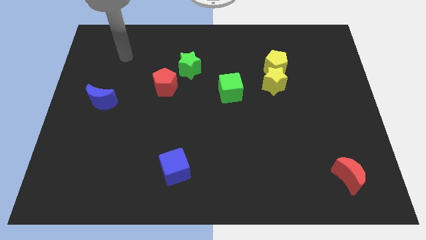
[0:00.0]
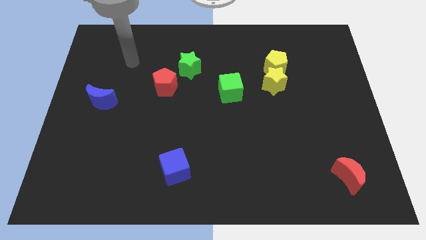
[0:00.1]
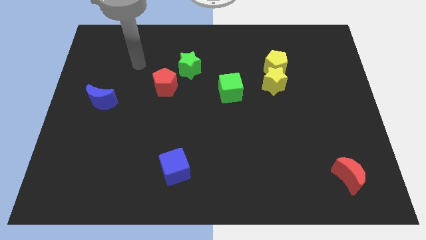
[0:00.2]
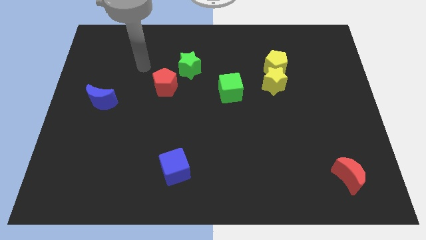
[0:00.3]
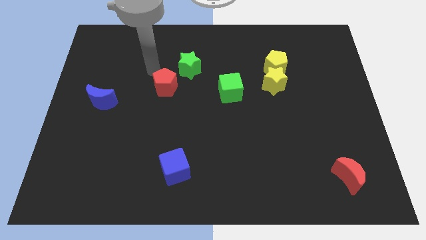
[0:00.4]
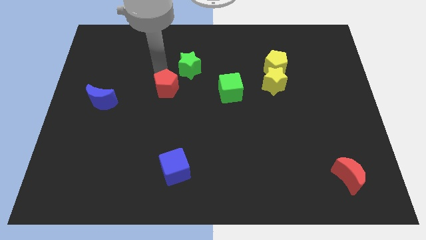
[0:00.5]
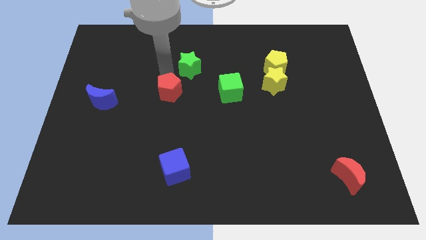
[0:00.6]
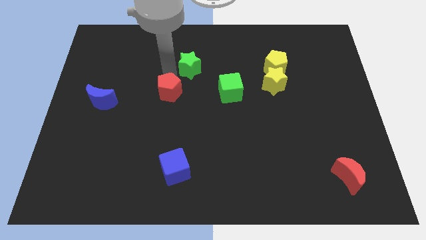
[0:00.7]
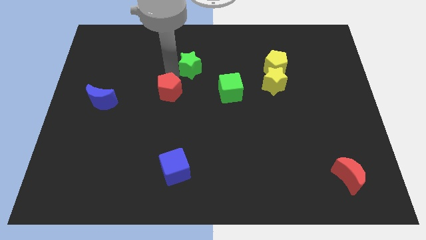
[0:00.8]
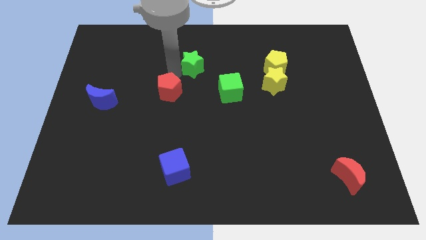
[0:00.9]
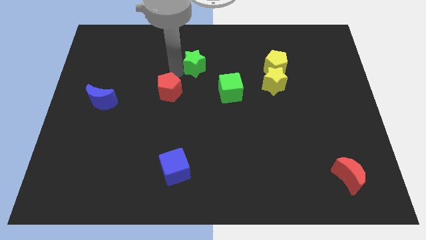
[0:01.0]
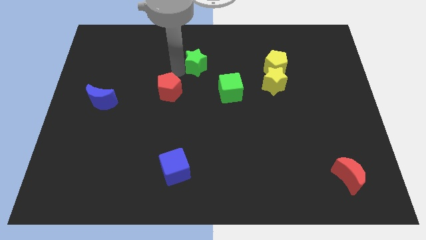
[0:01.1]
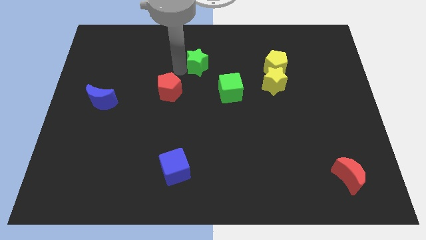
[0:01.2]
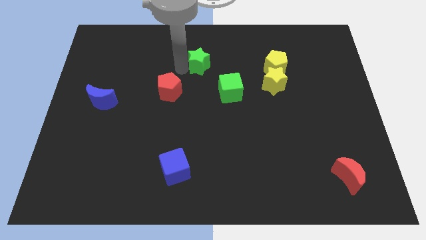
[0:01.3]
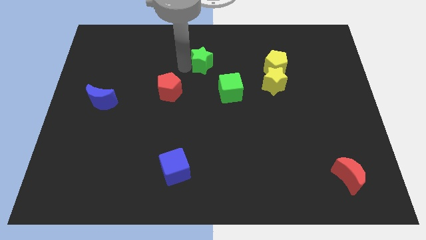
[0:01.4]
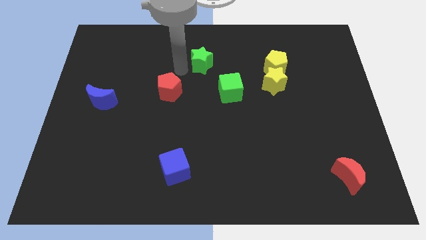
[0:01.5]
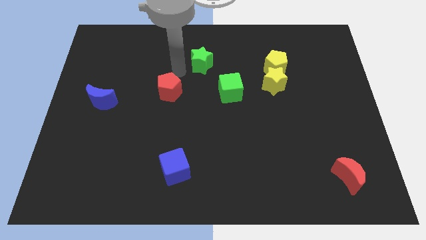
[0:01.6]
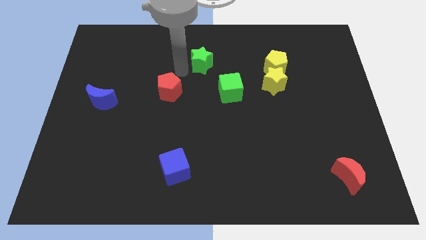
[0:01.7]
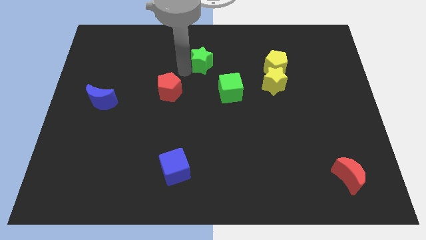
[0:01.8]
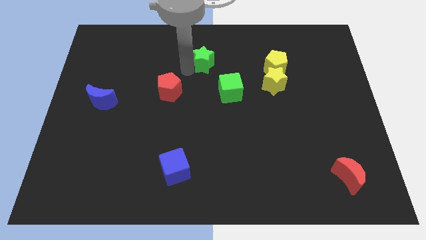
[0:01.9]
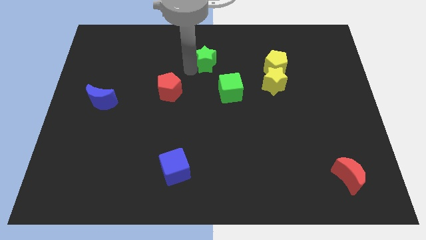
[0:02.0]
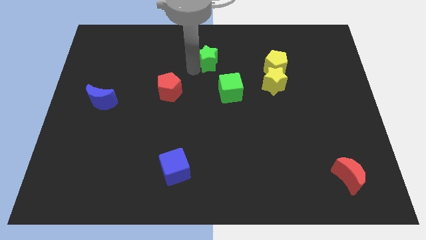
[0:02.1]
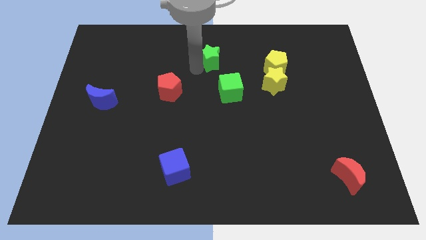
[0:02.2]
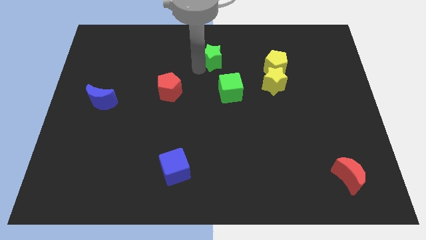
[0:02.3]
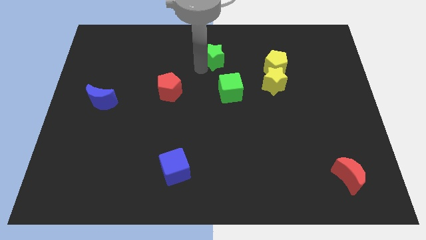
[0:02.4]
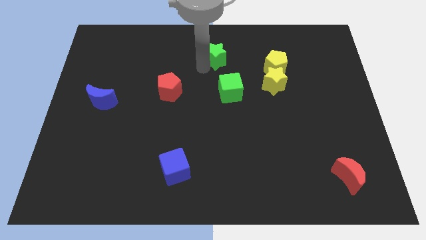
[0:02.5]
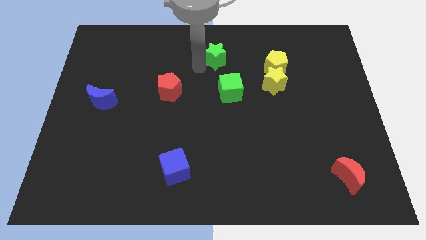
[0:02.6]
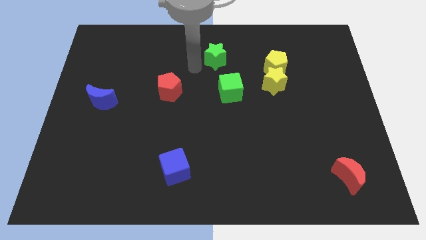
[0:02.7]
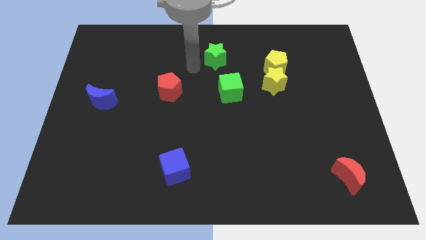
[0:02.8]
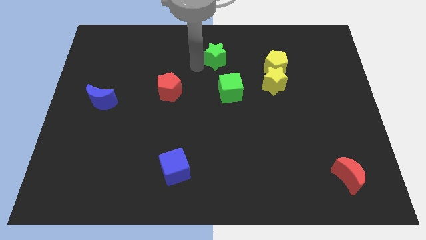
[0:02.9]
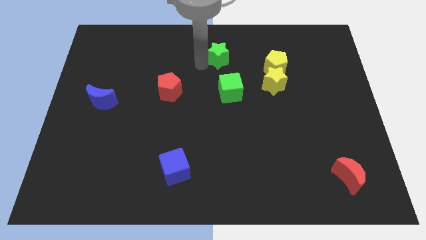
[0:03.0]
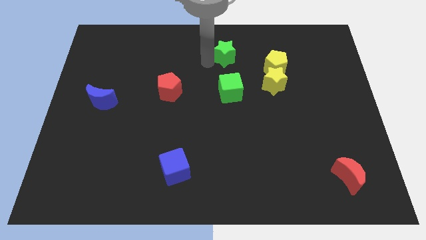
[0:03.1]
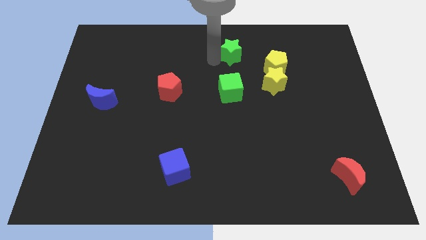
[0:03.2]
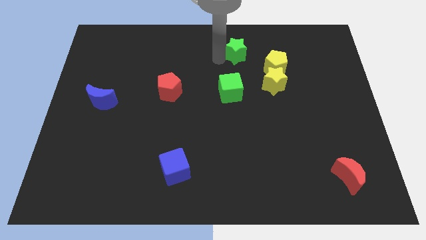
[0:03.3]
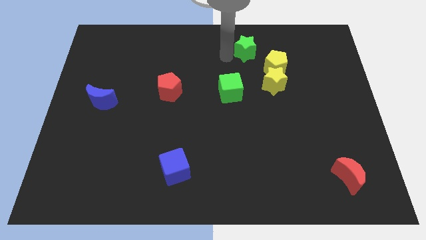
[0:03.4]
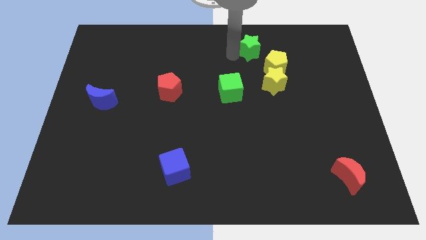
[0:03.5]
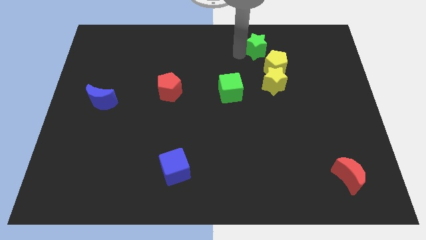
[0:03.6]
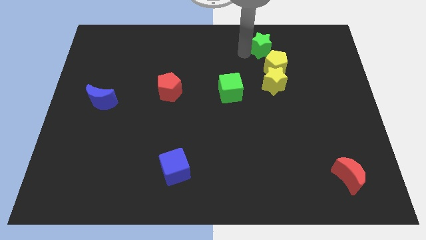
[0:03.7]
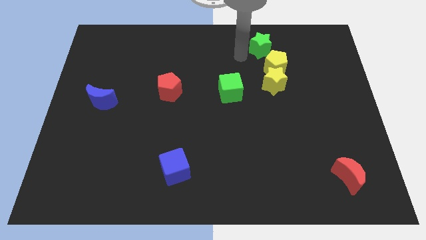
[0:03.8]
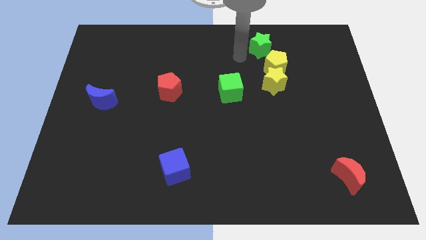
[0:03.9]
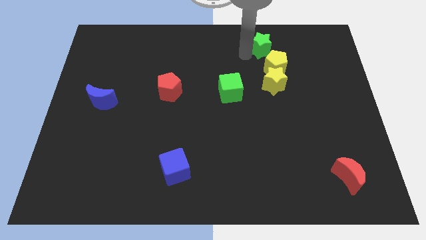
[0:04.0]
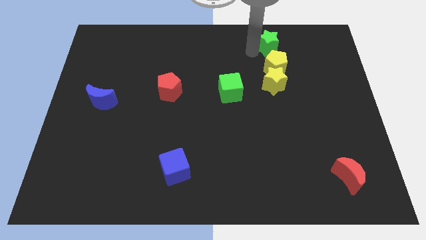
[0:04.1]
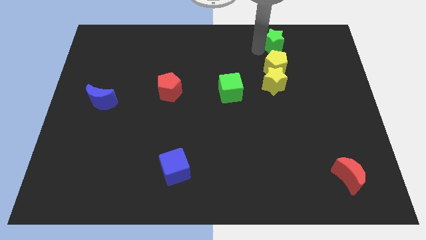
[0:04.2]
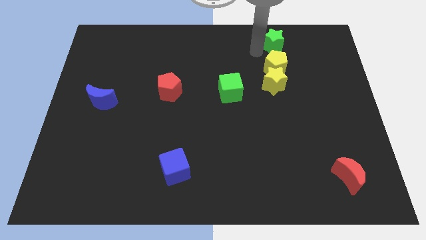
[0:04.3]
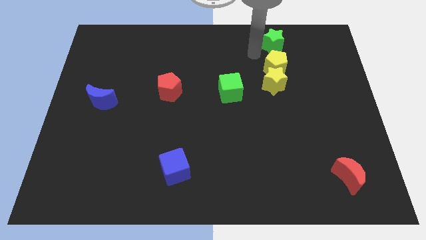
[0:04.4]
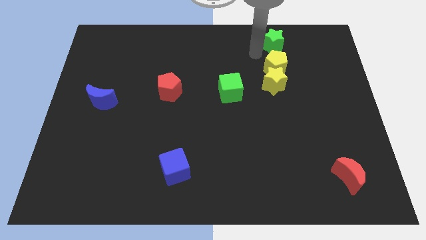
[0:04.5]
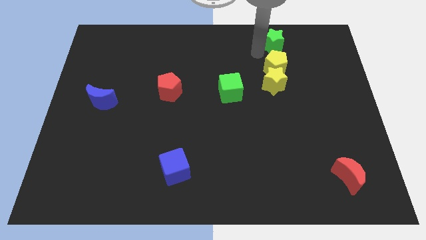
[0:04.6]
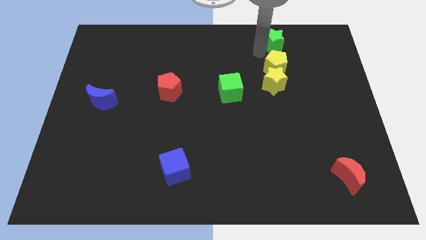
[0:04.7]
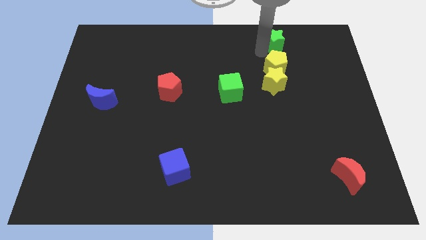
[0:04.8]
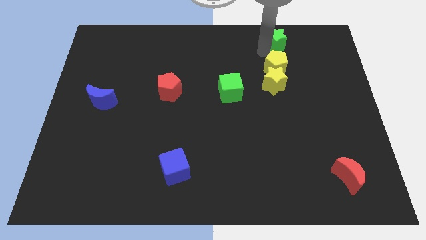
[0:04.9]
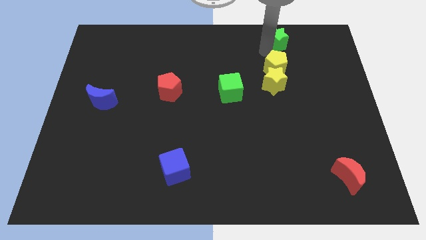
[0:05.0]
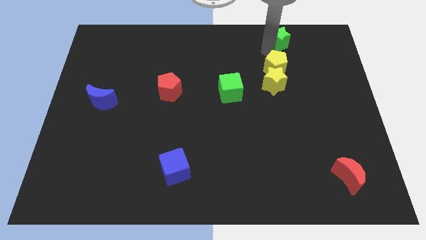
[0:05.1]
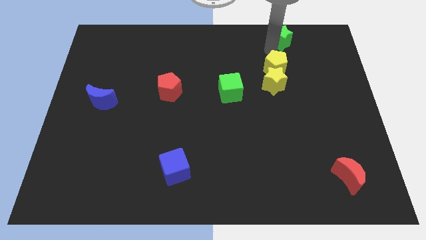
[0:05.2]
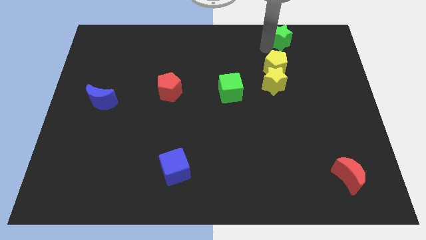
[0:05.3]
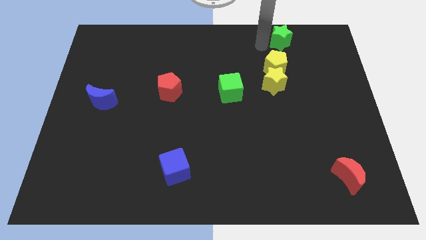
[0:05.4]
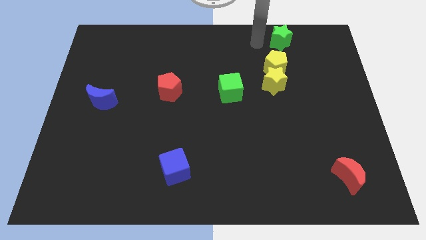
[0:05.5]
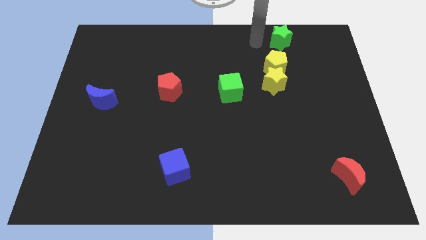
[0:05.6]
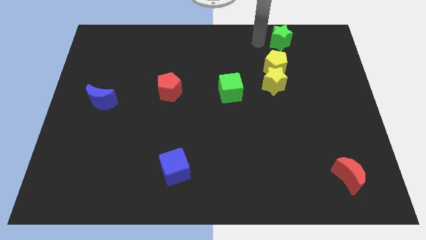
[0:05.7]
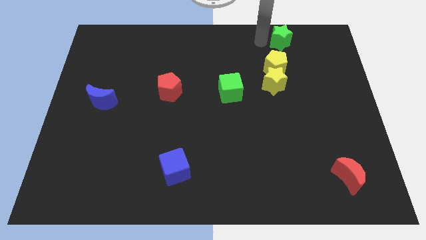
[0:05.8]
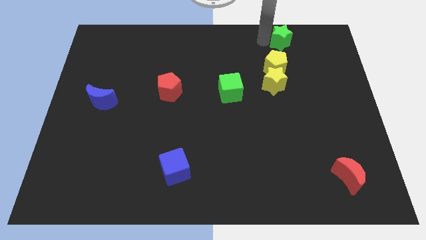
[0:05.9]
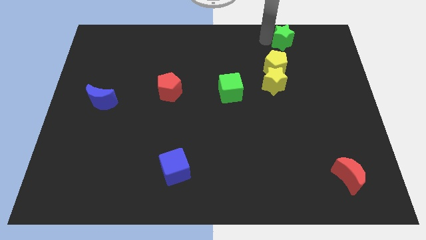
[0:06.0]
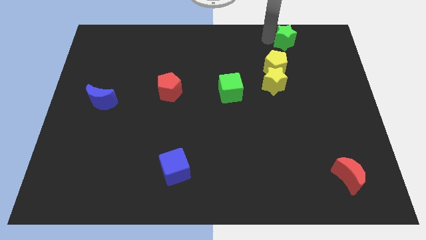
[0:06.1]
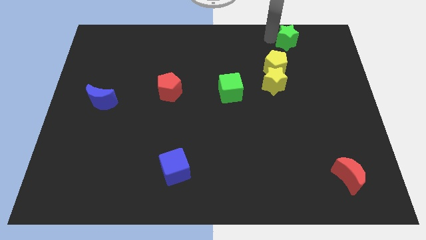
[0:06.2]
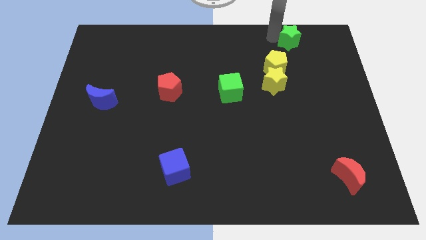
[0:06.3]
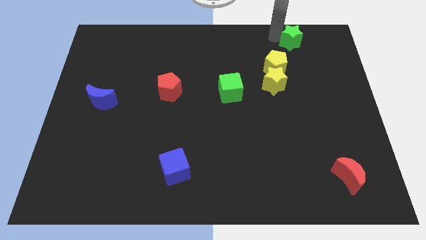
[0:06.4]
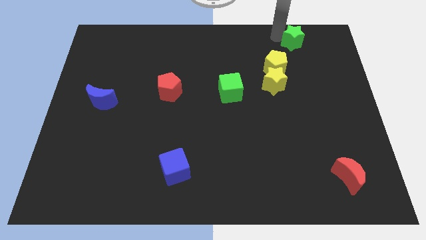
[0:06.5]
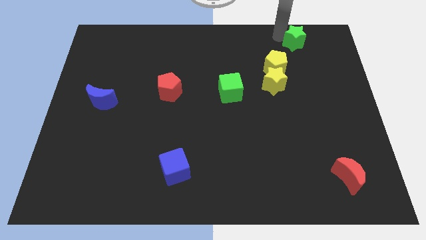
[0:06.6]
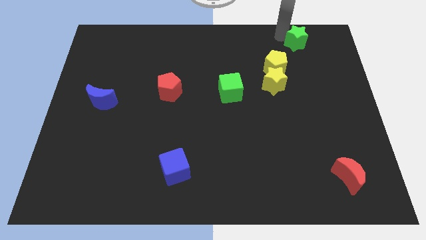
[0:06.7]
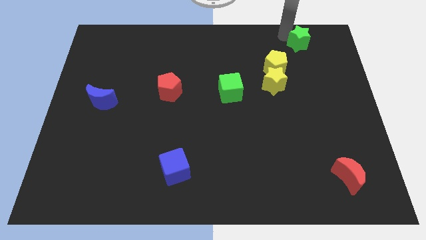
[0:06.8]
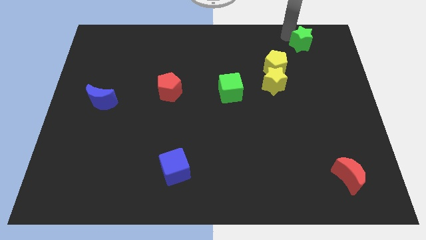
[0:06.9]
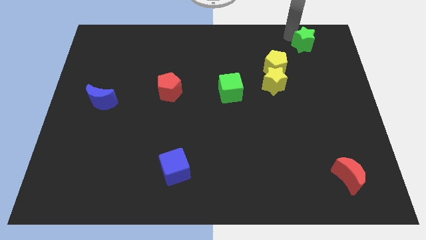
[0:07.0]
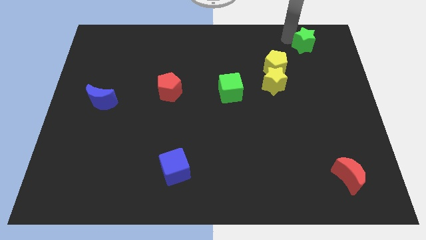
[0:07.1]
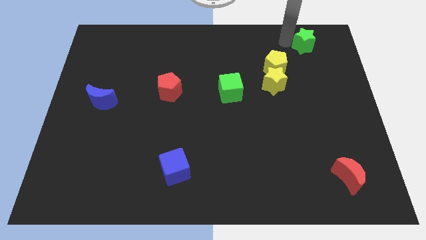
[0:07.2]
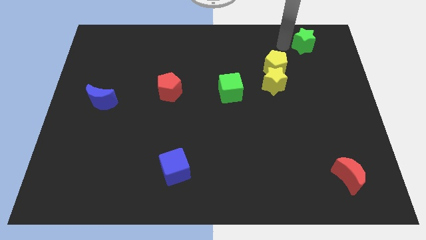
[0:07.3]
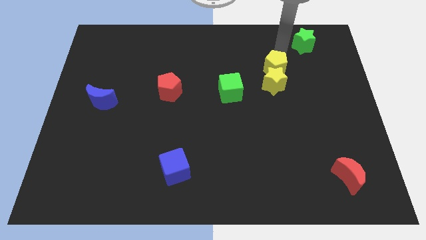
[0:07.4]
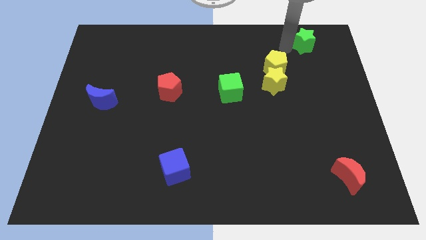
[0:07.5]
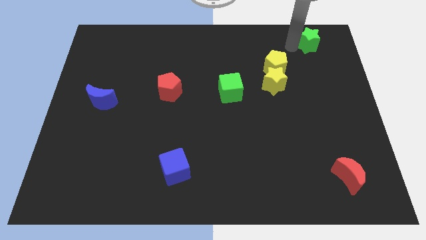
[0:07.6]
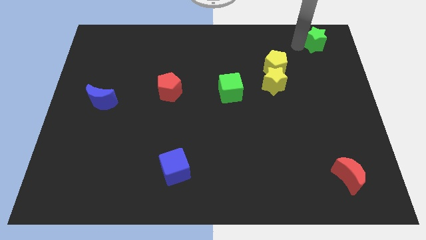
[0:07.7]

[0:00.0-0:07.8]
move the green star to the top right of the board
